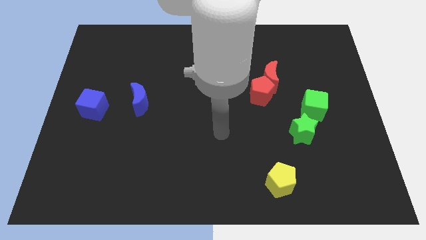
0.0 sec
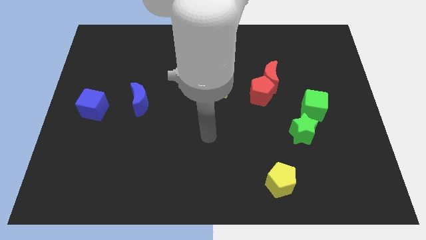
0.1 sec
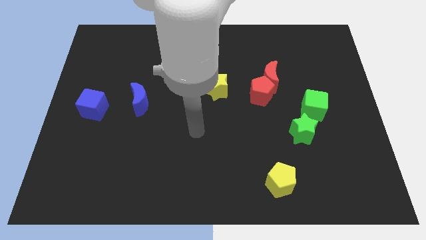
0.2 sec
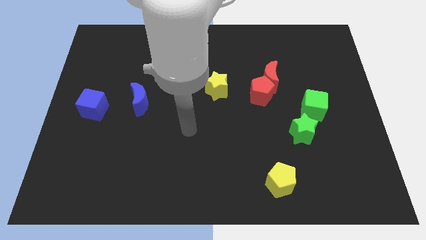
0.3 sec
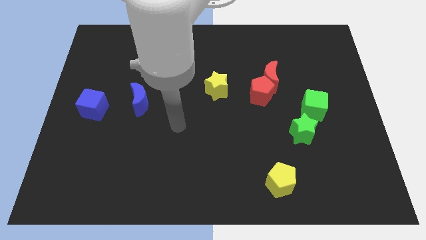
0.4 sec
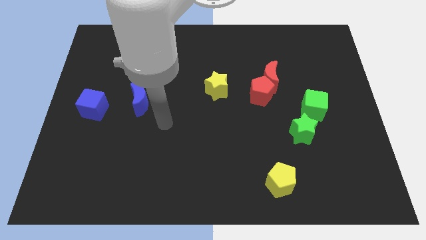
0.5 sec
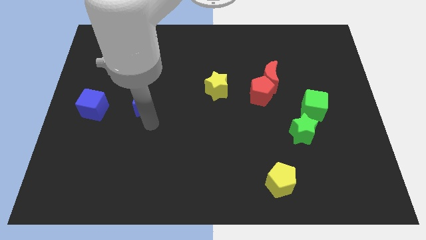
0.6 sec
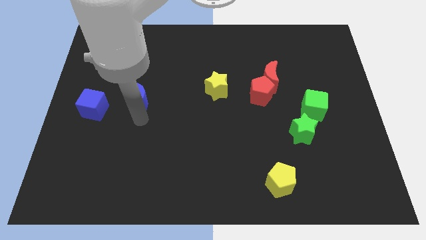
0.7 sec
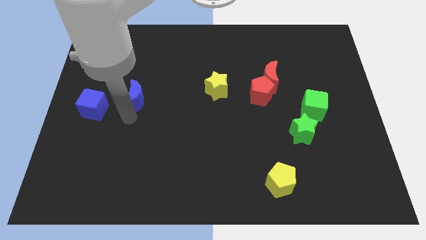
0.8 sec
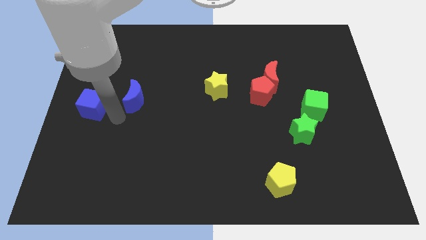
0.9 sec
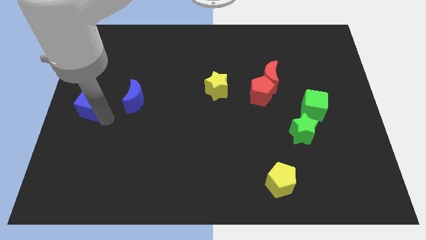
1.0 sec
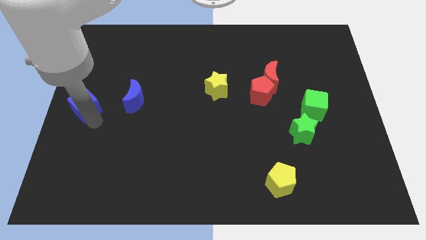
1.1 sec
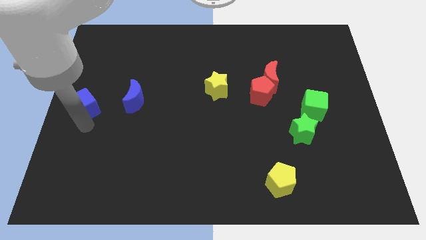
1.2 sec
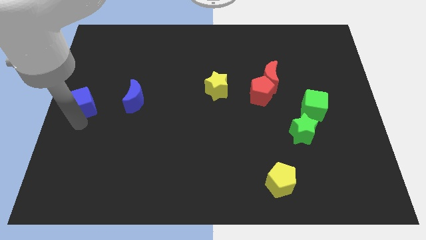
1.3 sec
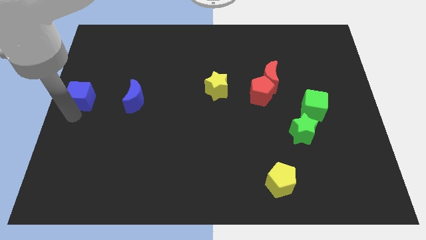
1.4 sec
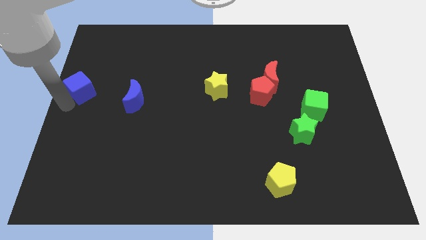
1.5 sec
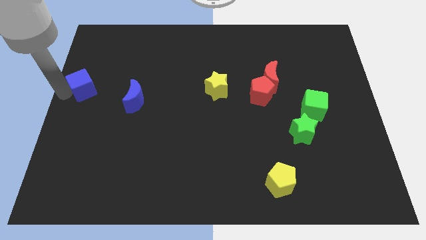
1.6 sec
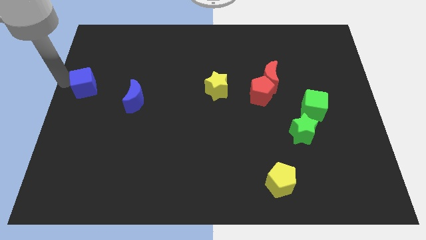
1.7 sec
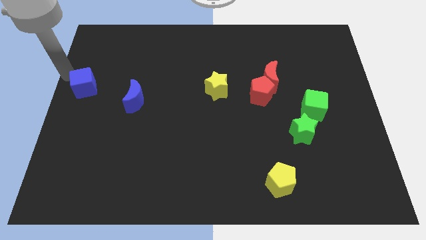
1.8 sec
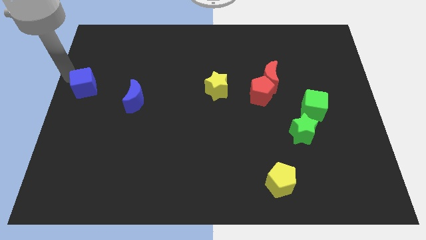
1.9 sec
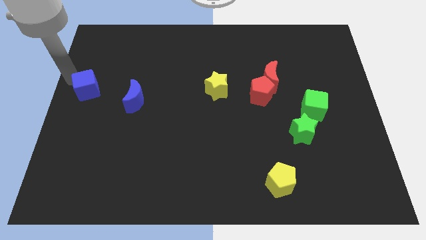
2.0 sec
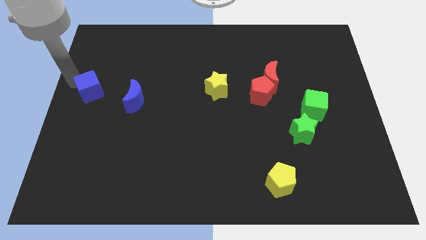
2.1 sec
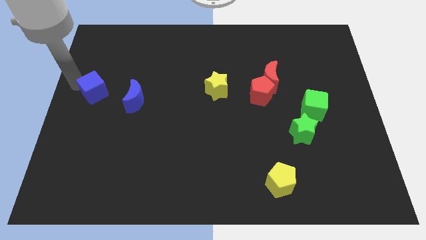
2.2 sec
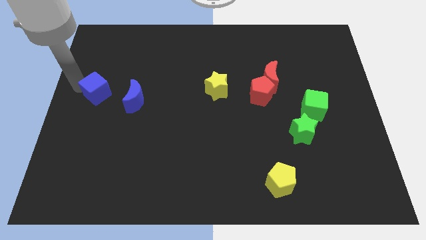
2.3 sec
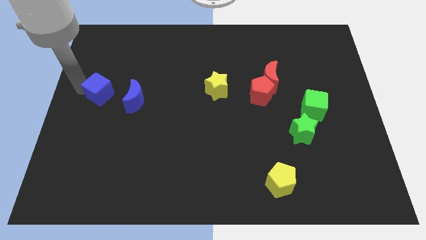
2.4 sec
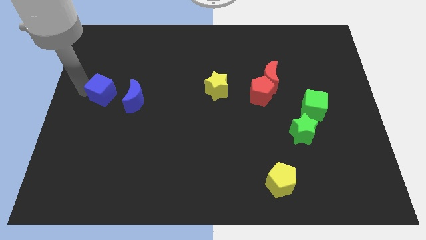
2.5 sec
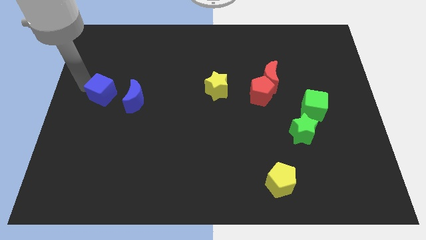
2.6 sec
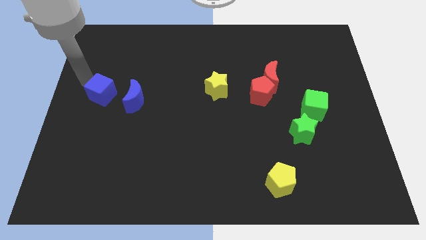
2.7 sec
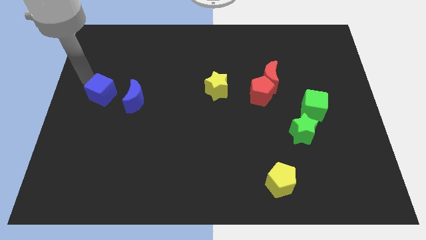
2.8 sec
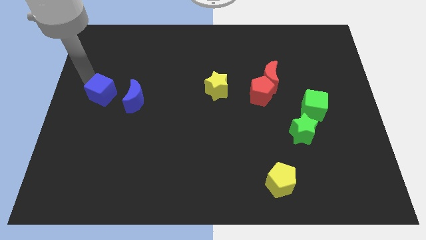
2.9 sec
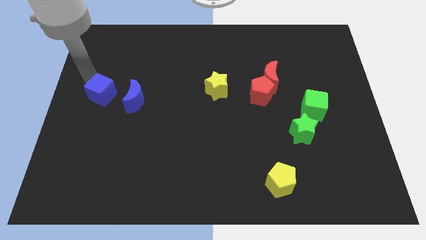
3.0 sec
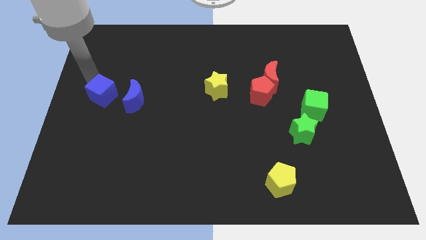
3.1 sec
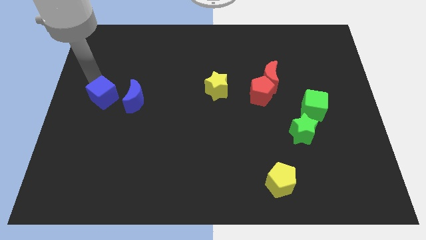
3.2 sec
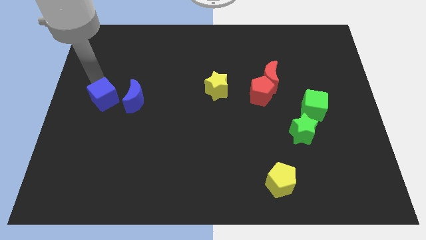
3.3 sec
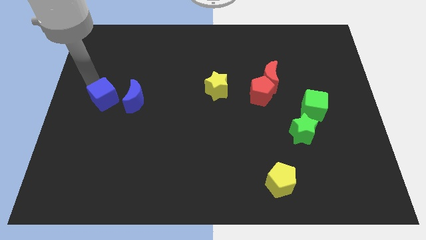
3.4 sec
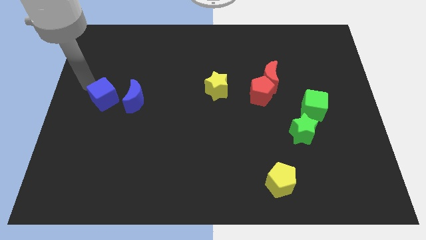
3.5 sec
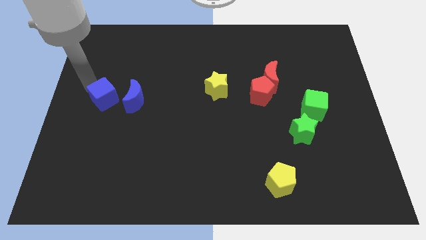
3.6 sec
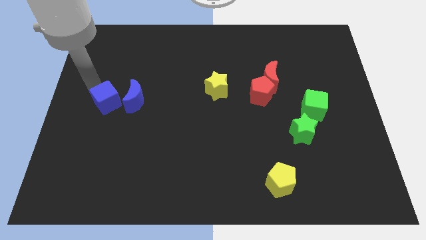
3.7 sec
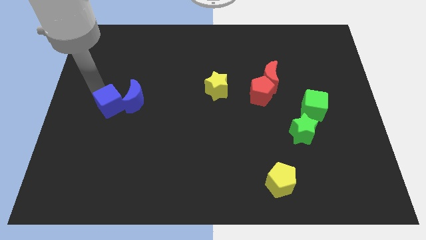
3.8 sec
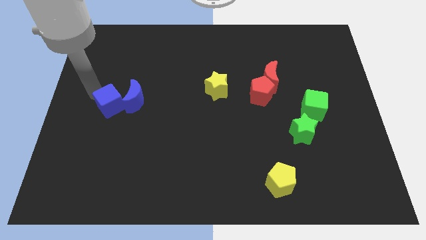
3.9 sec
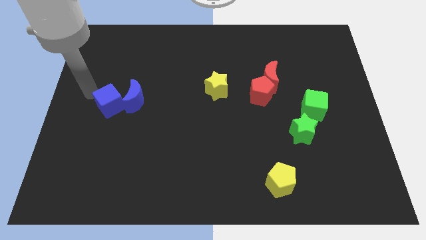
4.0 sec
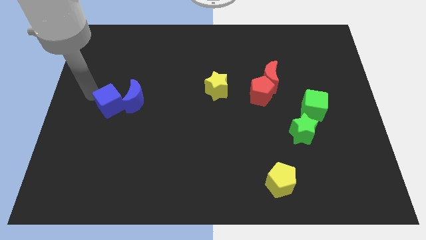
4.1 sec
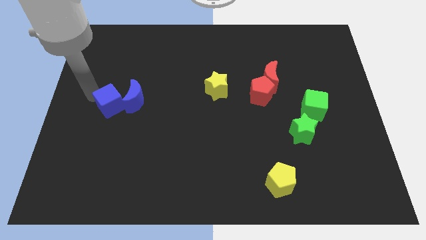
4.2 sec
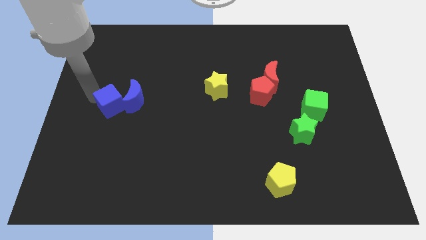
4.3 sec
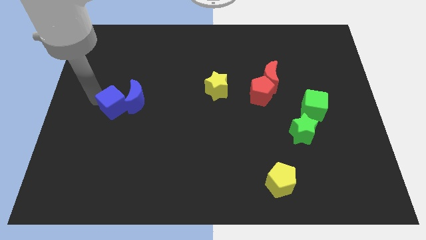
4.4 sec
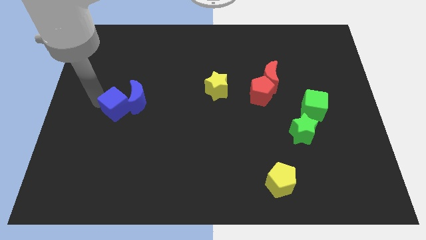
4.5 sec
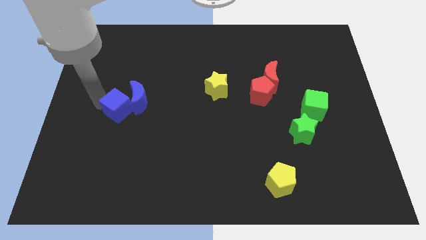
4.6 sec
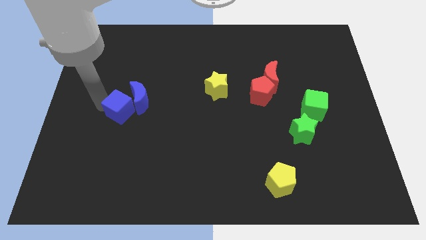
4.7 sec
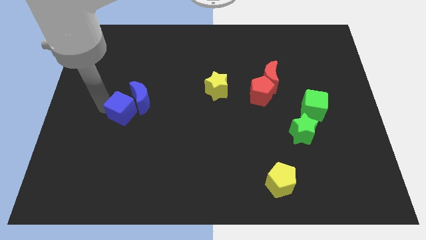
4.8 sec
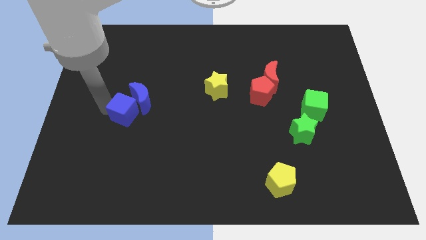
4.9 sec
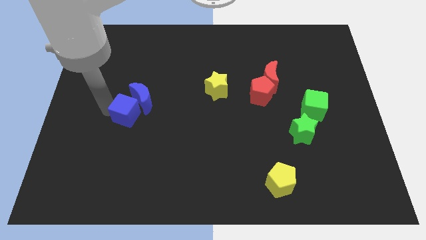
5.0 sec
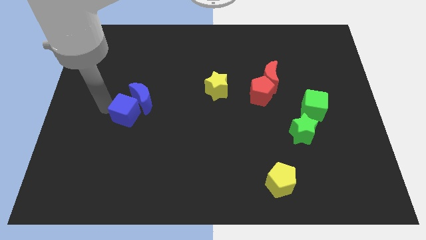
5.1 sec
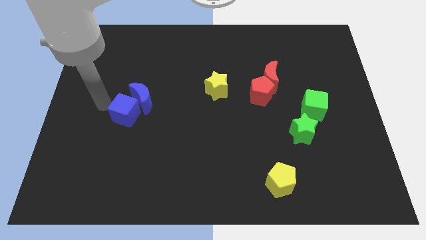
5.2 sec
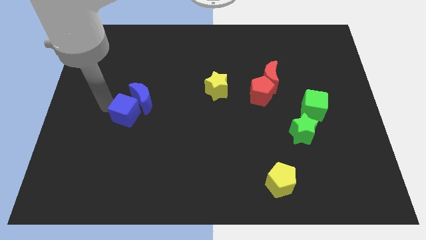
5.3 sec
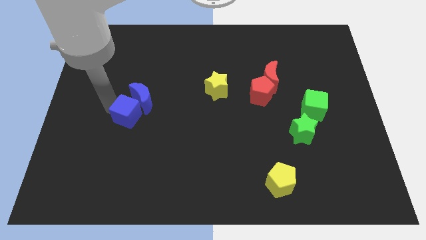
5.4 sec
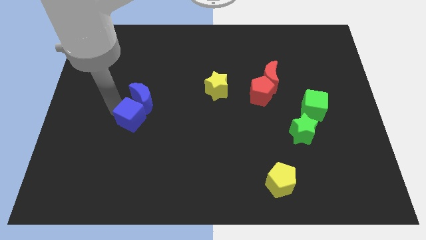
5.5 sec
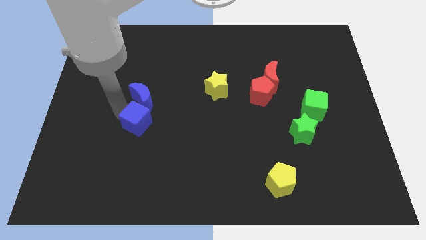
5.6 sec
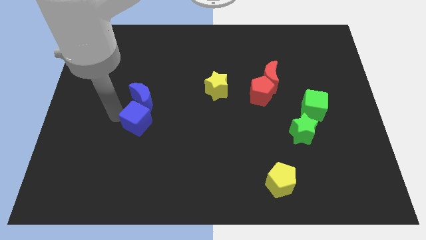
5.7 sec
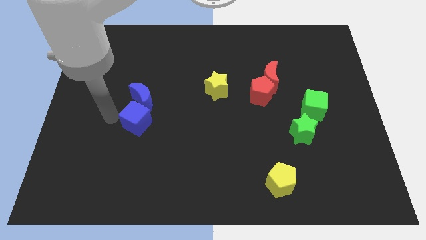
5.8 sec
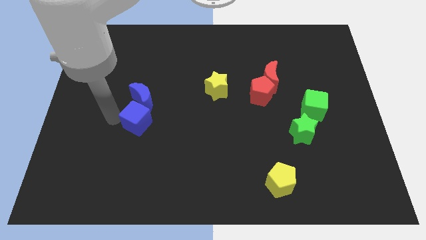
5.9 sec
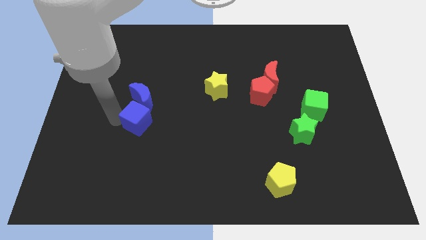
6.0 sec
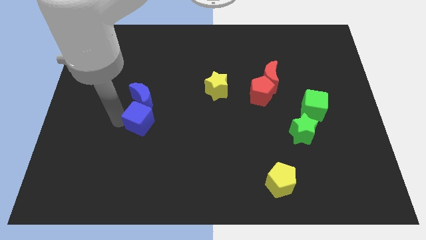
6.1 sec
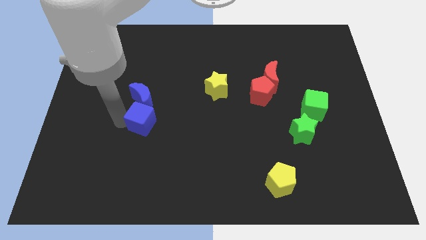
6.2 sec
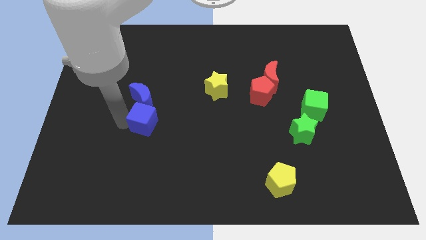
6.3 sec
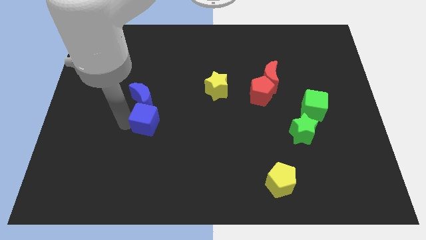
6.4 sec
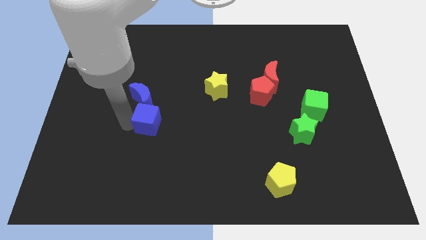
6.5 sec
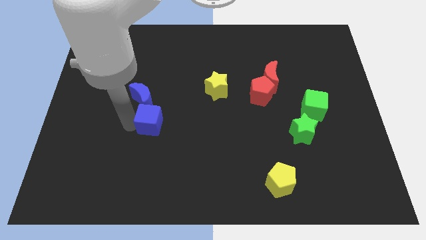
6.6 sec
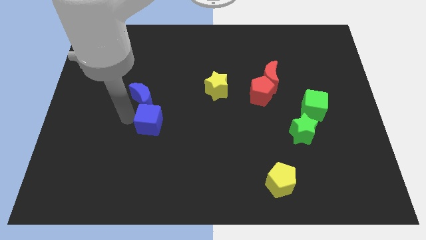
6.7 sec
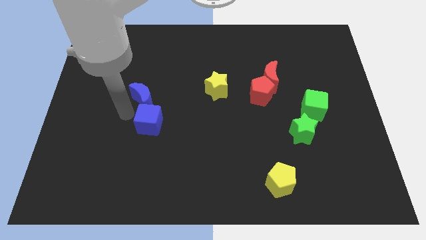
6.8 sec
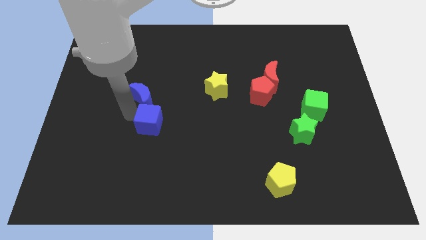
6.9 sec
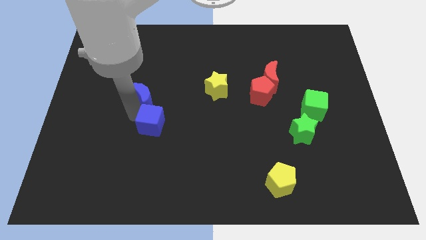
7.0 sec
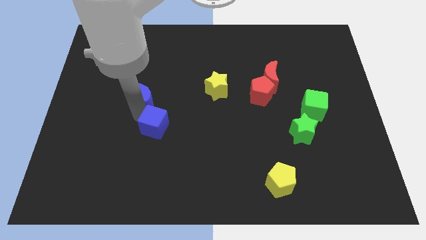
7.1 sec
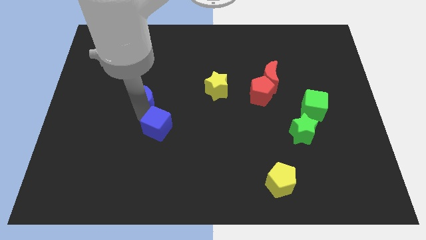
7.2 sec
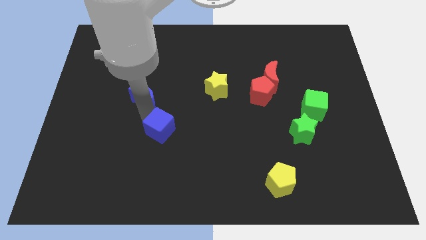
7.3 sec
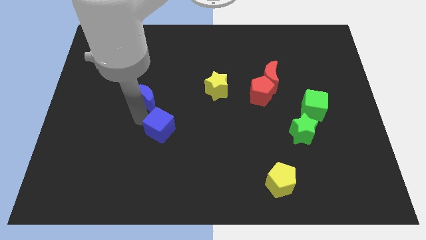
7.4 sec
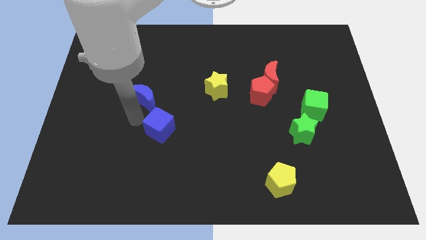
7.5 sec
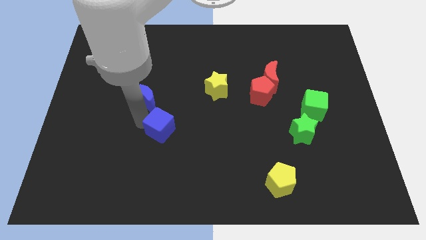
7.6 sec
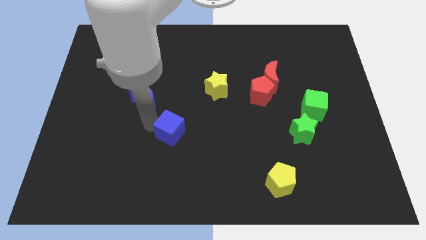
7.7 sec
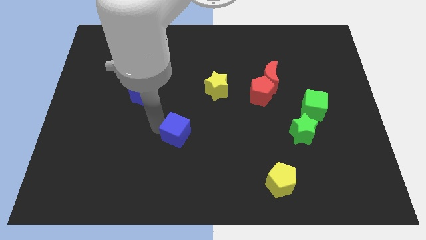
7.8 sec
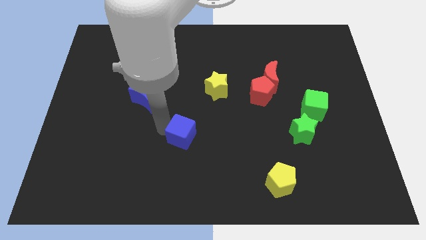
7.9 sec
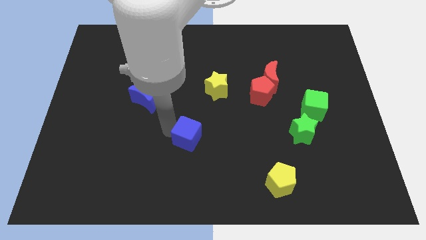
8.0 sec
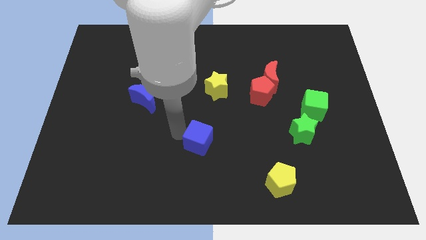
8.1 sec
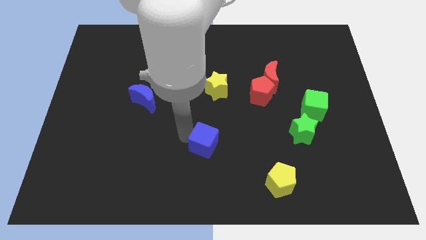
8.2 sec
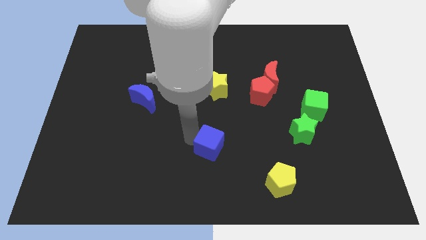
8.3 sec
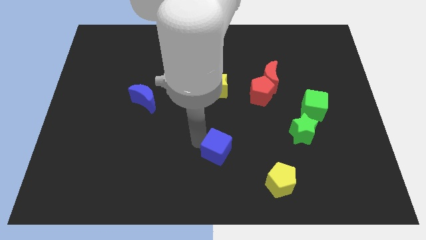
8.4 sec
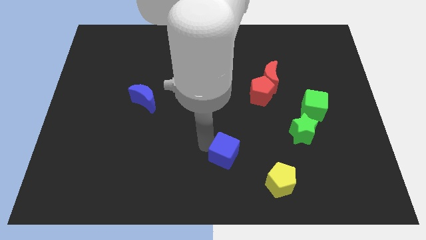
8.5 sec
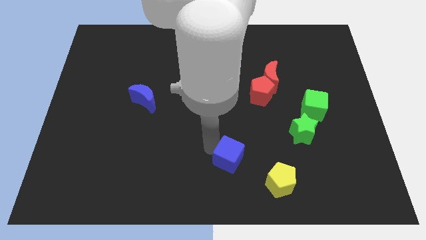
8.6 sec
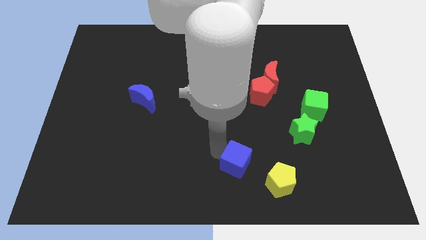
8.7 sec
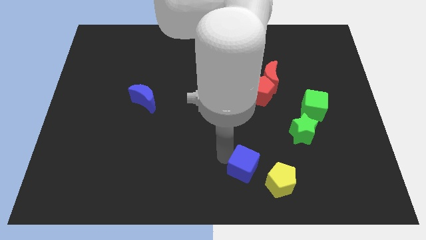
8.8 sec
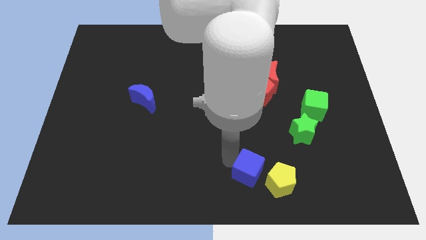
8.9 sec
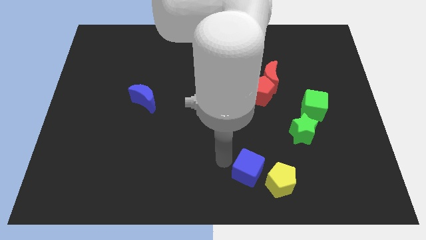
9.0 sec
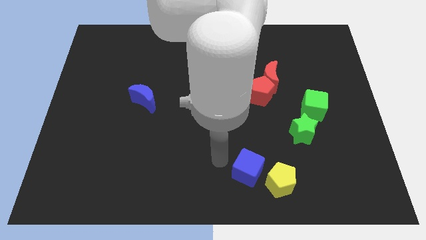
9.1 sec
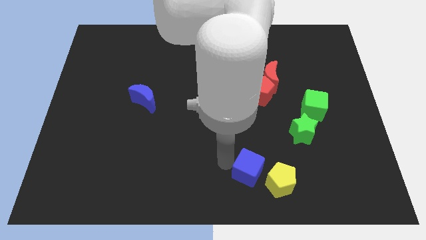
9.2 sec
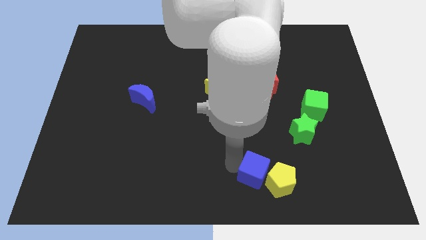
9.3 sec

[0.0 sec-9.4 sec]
move the blue cube towards the yellow pentagon
